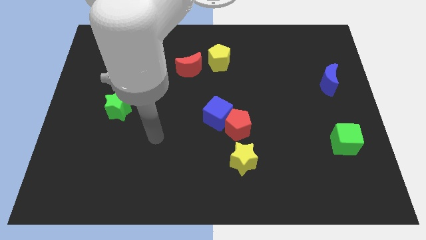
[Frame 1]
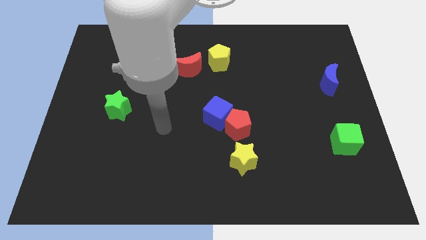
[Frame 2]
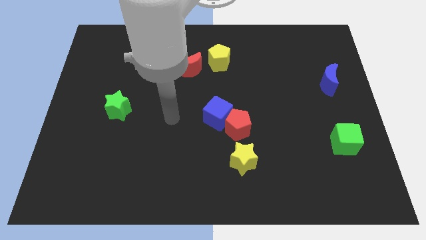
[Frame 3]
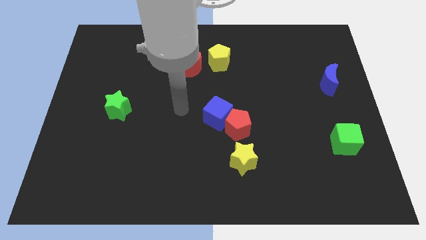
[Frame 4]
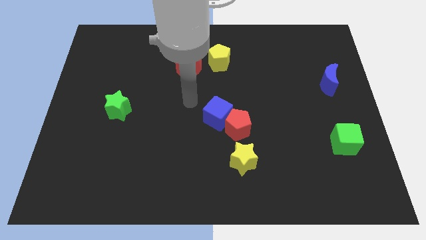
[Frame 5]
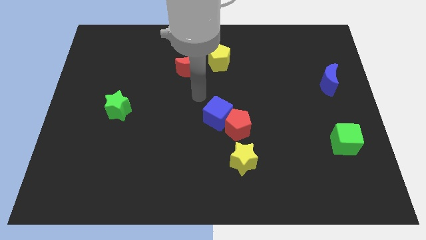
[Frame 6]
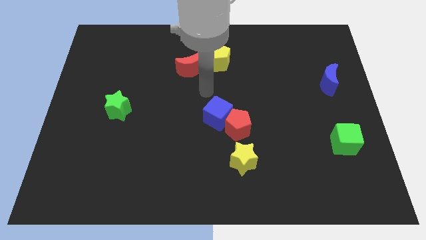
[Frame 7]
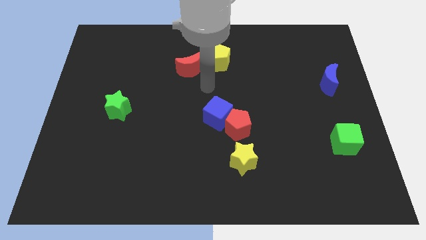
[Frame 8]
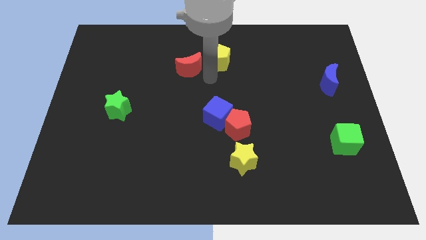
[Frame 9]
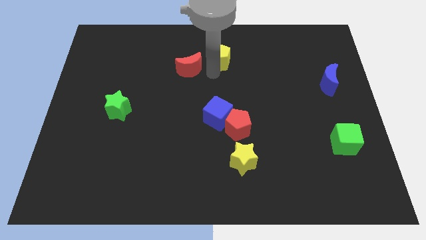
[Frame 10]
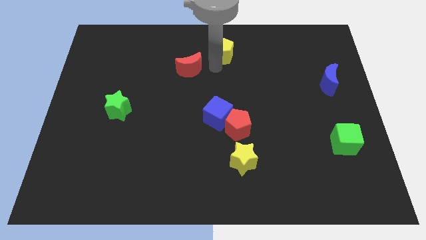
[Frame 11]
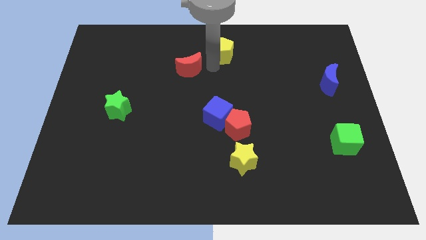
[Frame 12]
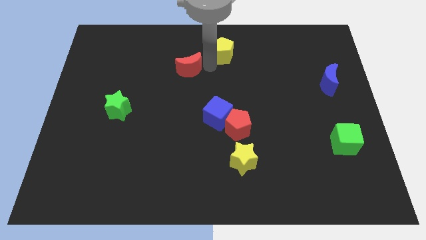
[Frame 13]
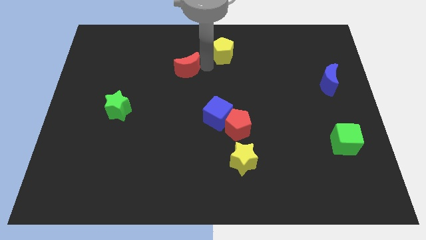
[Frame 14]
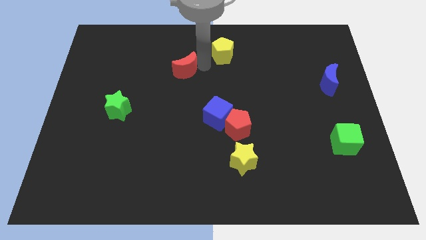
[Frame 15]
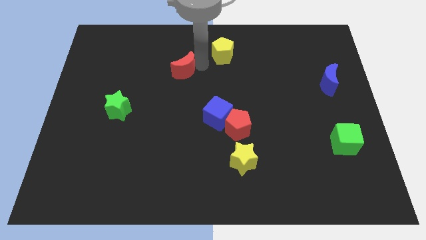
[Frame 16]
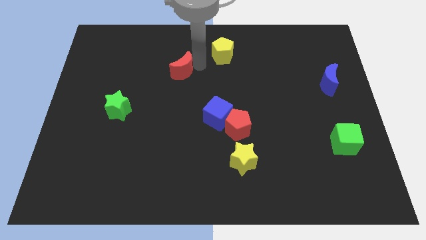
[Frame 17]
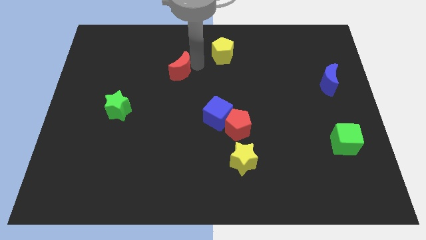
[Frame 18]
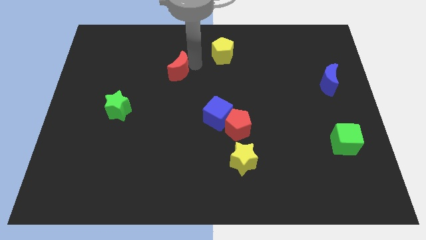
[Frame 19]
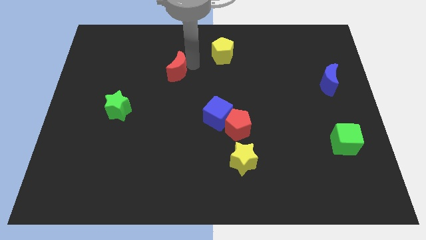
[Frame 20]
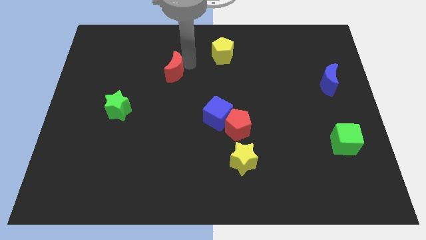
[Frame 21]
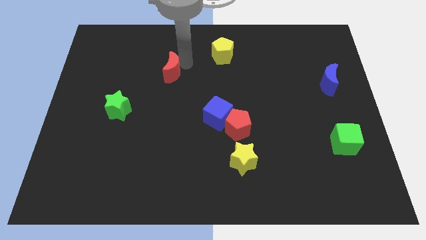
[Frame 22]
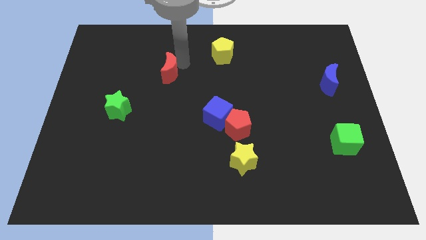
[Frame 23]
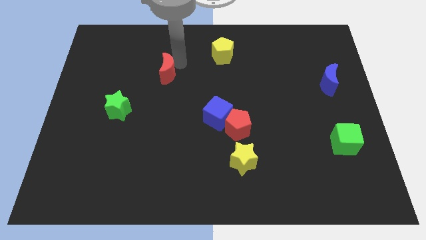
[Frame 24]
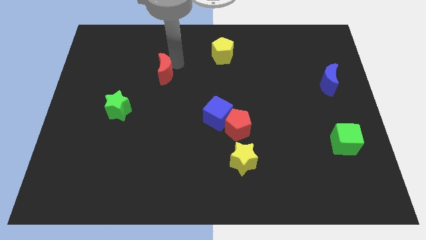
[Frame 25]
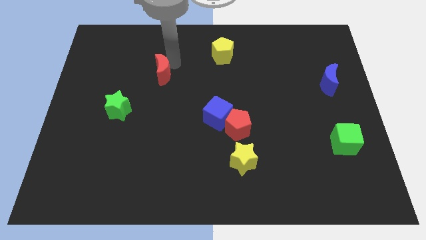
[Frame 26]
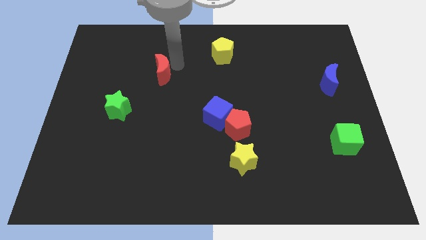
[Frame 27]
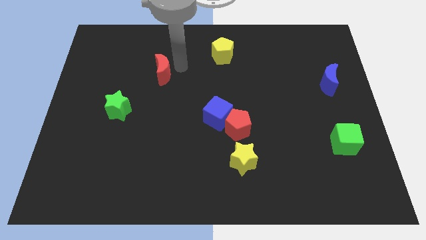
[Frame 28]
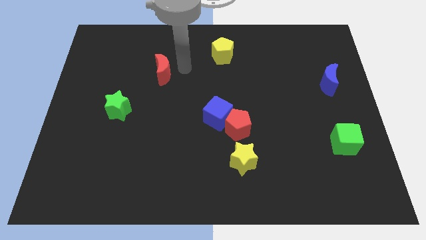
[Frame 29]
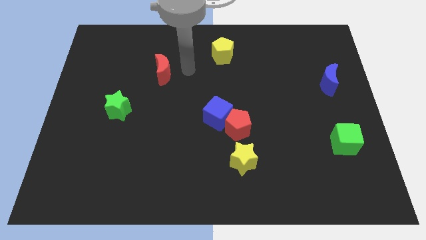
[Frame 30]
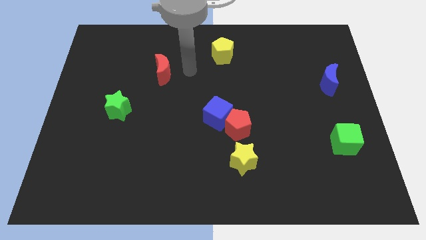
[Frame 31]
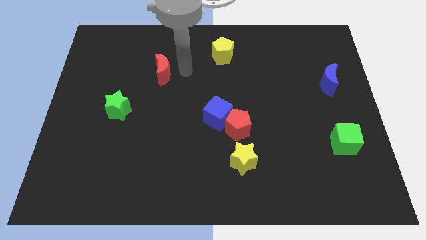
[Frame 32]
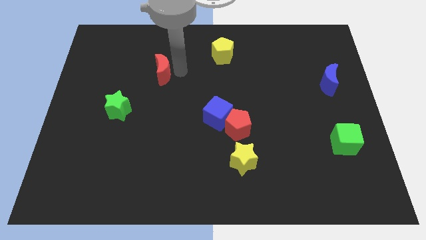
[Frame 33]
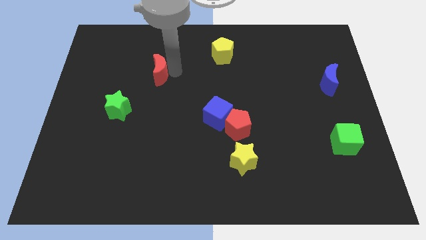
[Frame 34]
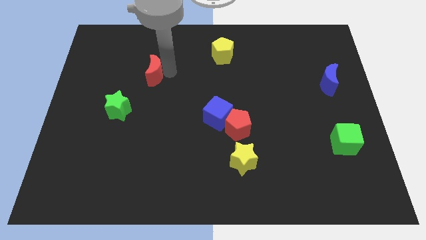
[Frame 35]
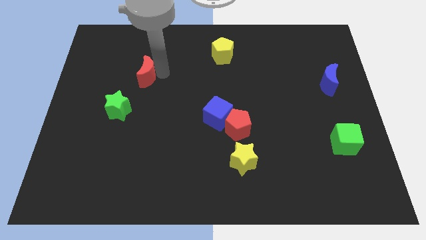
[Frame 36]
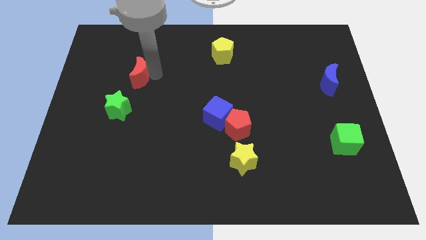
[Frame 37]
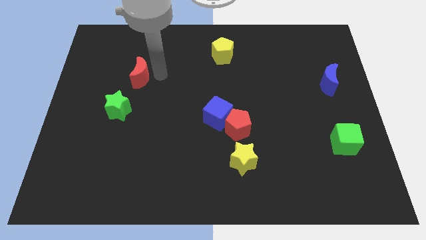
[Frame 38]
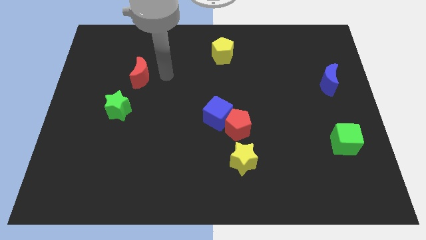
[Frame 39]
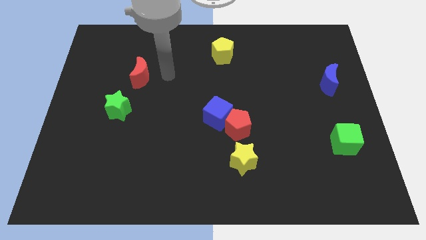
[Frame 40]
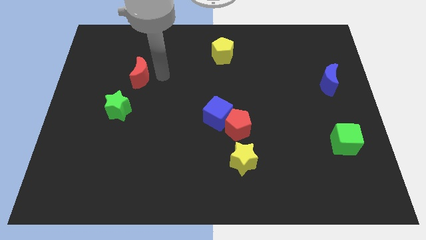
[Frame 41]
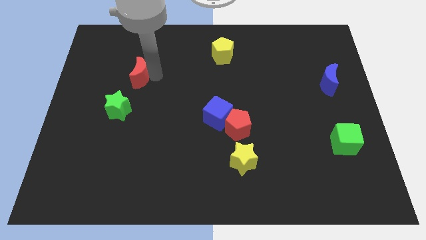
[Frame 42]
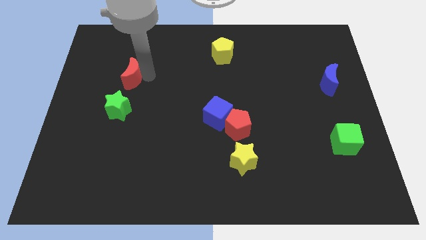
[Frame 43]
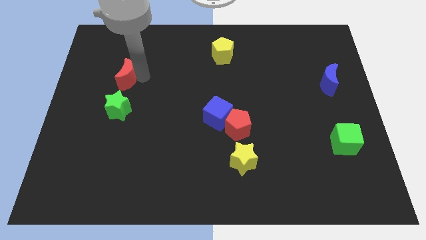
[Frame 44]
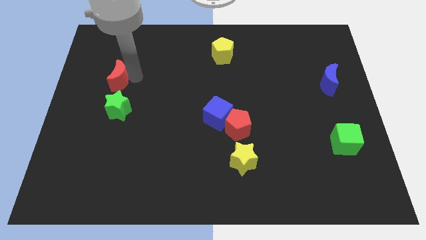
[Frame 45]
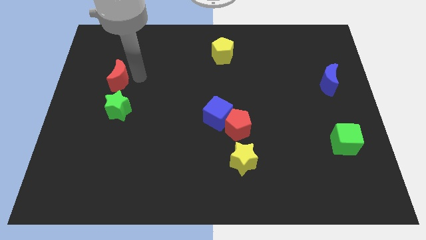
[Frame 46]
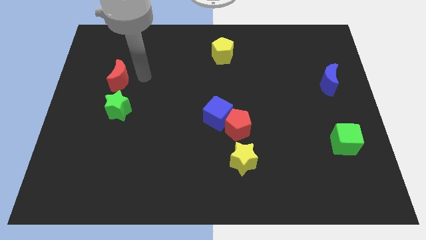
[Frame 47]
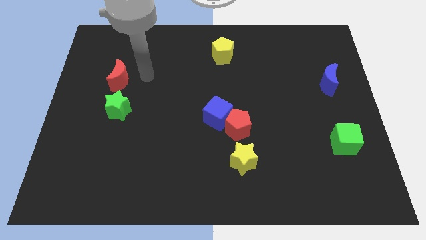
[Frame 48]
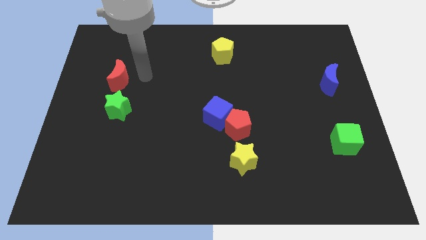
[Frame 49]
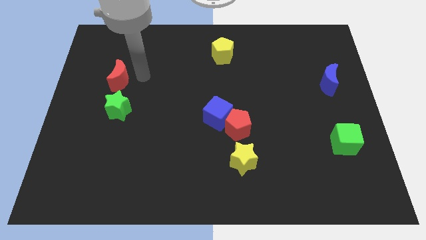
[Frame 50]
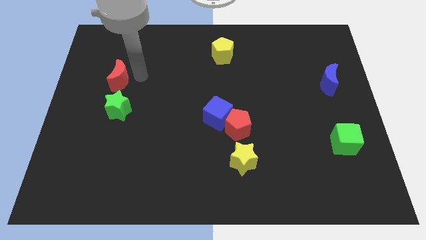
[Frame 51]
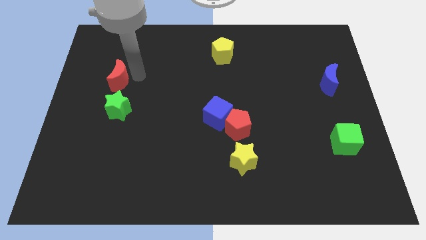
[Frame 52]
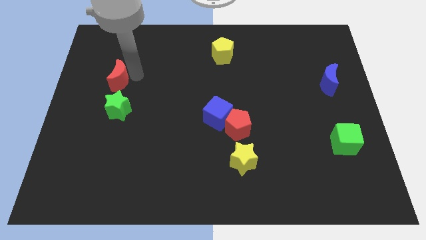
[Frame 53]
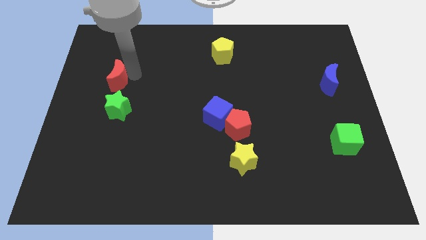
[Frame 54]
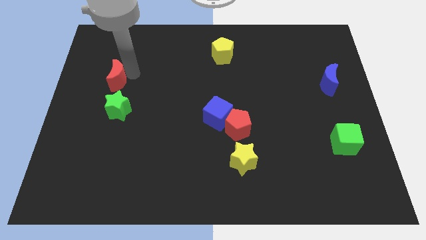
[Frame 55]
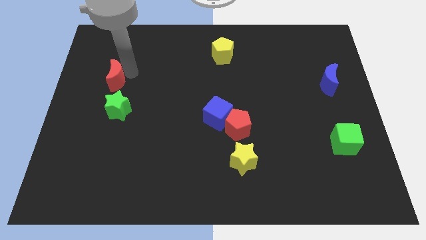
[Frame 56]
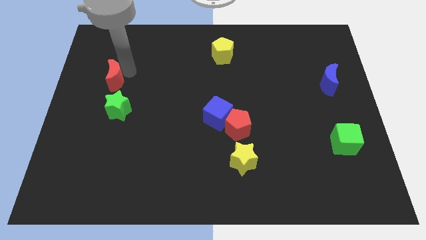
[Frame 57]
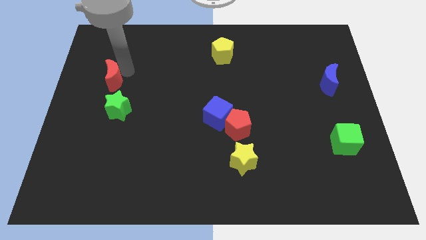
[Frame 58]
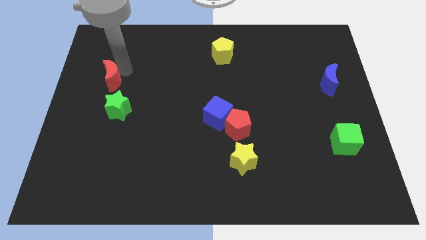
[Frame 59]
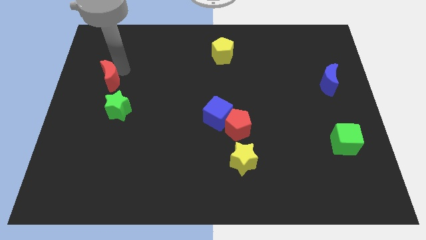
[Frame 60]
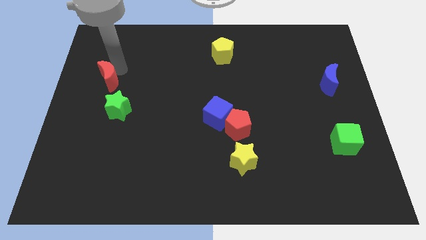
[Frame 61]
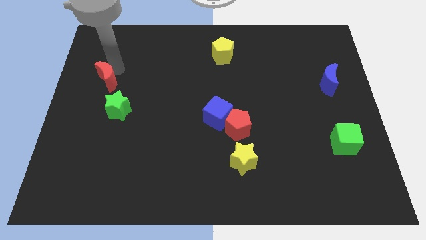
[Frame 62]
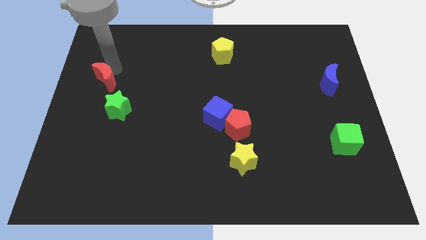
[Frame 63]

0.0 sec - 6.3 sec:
put the red moon to the left side
